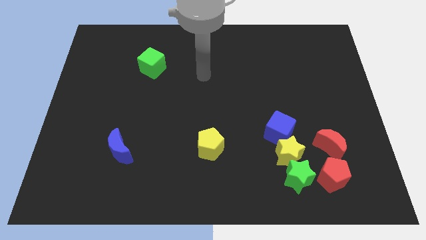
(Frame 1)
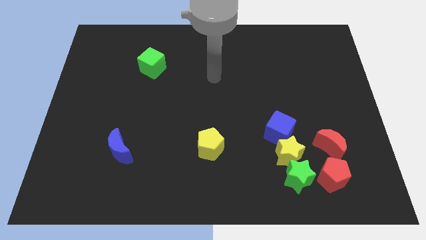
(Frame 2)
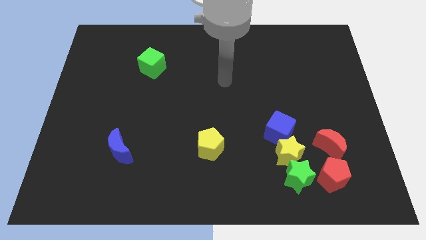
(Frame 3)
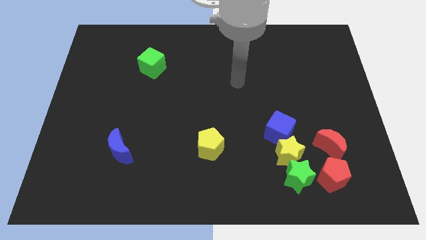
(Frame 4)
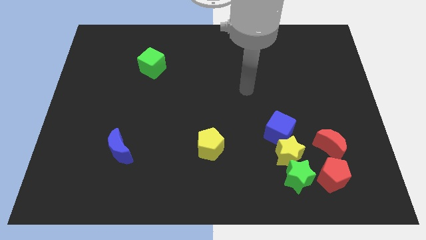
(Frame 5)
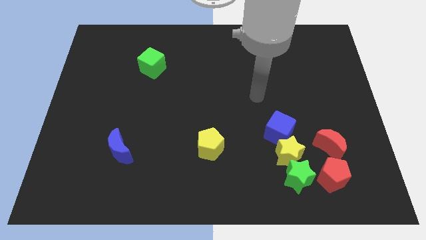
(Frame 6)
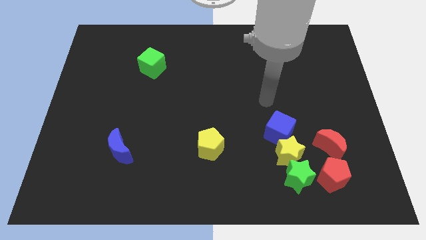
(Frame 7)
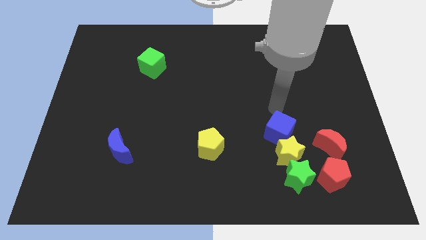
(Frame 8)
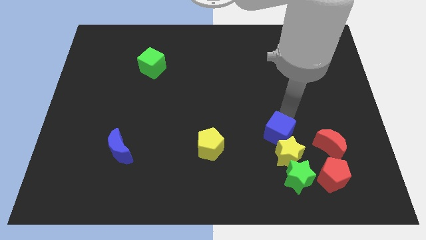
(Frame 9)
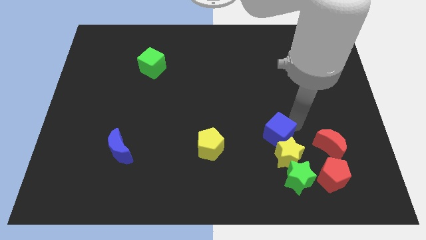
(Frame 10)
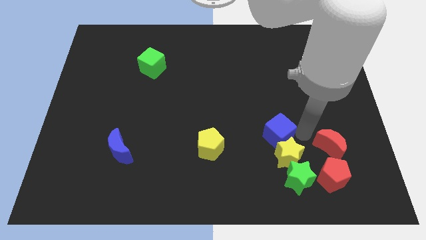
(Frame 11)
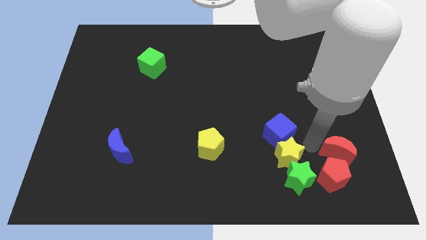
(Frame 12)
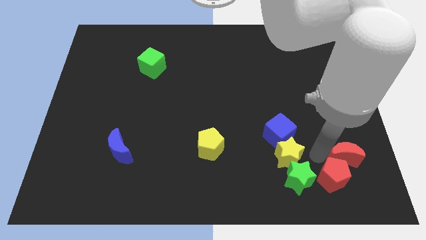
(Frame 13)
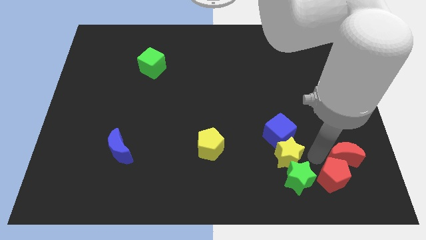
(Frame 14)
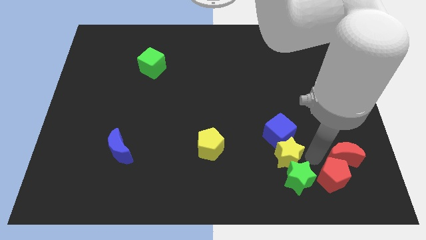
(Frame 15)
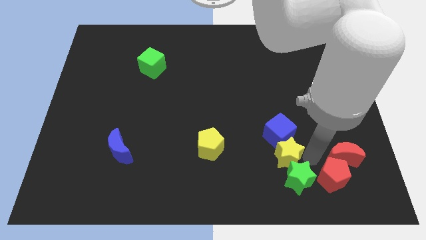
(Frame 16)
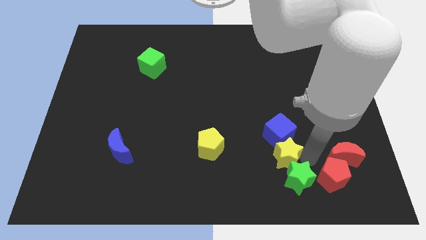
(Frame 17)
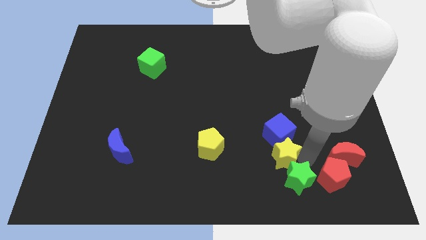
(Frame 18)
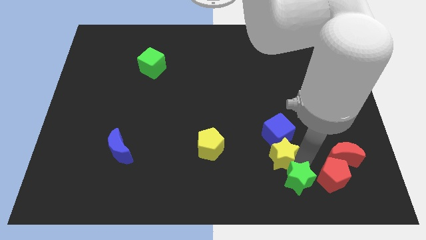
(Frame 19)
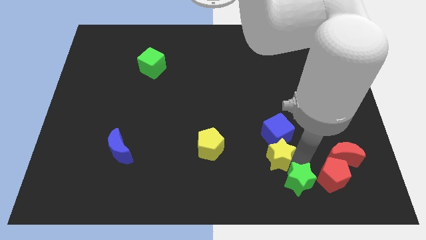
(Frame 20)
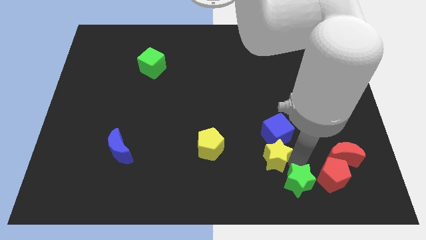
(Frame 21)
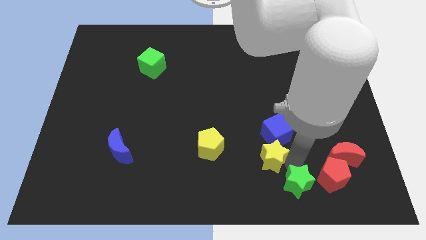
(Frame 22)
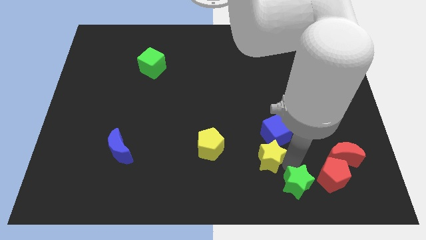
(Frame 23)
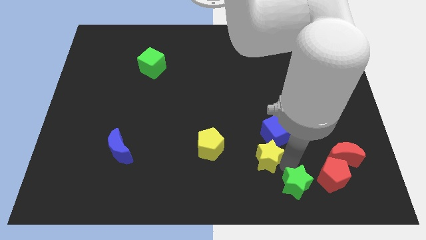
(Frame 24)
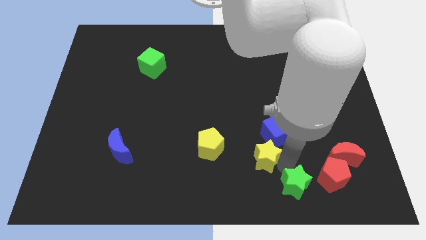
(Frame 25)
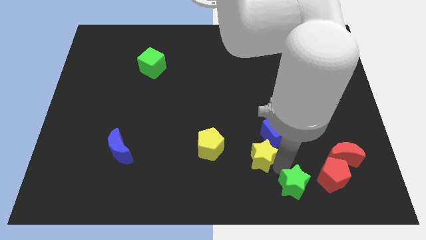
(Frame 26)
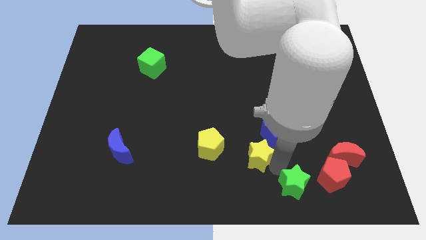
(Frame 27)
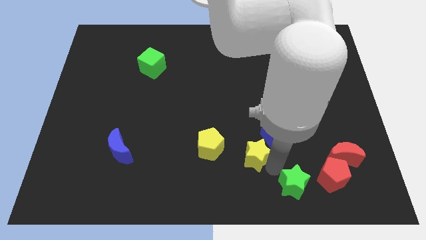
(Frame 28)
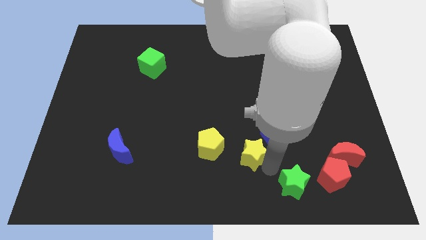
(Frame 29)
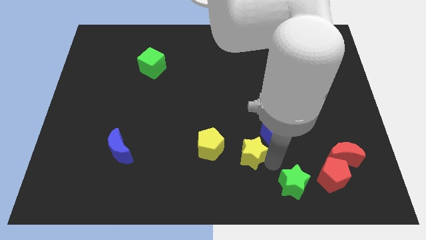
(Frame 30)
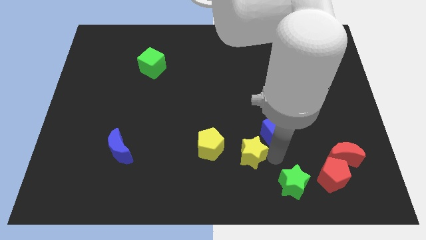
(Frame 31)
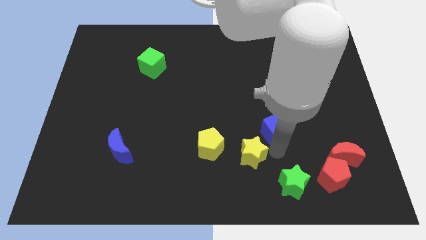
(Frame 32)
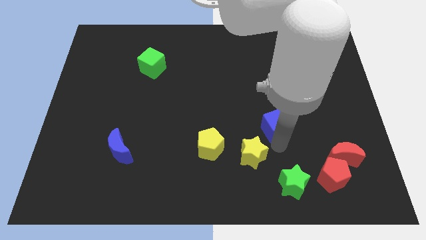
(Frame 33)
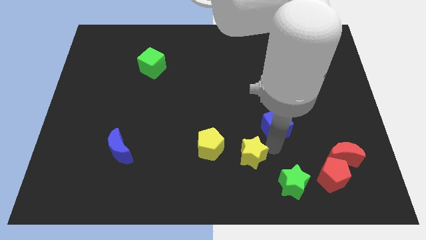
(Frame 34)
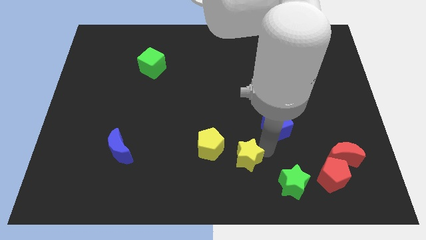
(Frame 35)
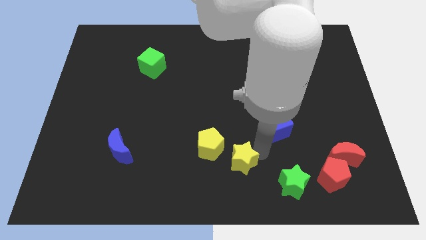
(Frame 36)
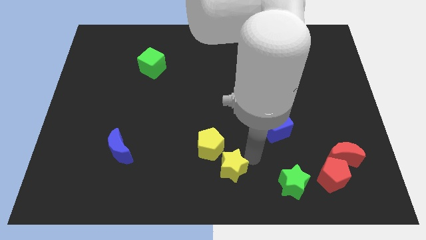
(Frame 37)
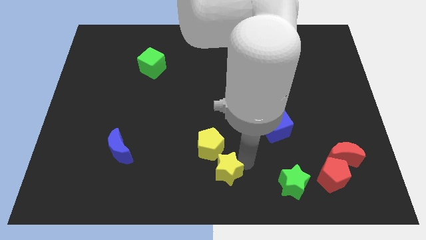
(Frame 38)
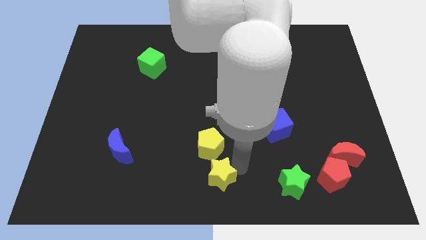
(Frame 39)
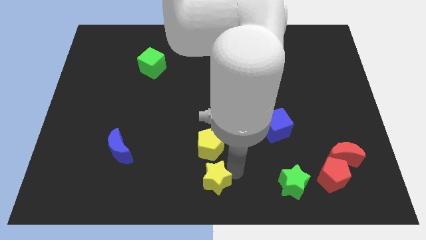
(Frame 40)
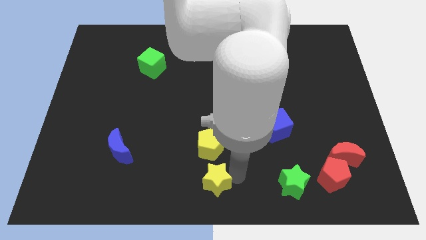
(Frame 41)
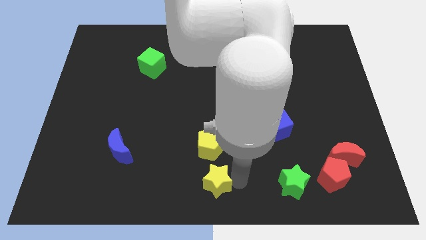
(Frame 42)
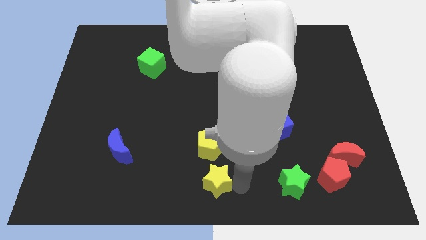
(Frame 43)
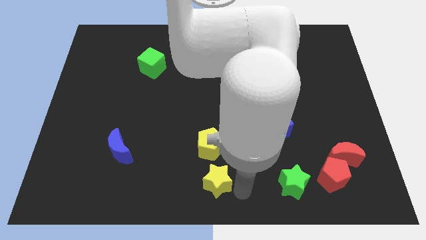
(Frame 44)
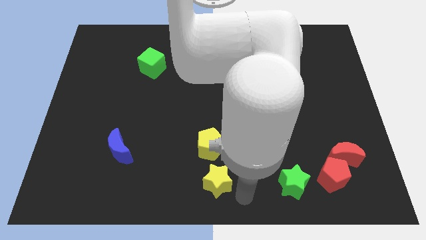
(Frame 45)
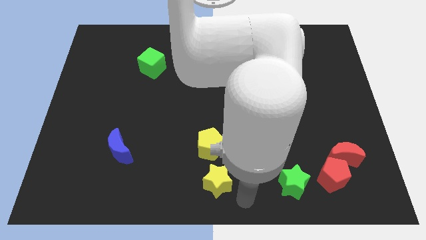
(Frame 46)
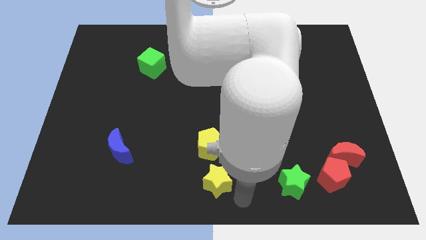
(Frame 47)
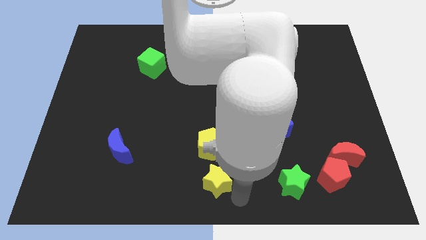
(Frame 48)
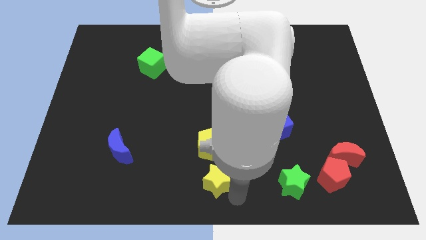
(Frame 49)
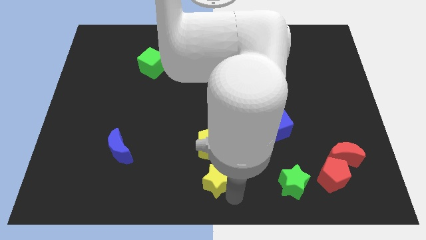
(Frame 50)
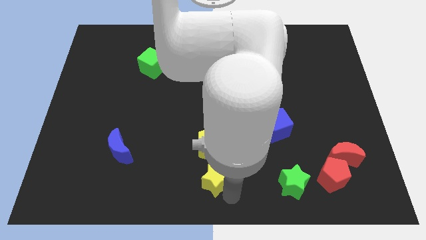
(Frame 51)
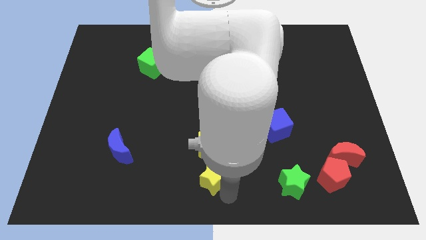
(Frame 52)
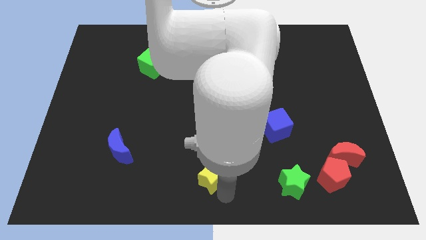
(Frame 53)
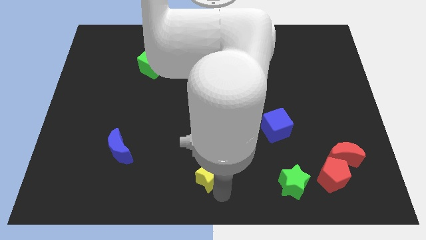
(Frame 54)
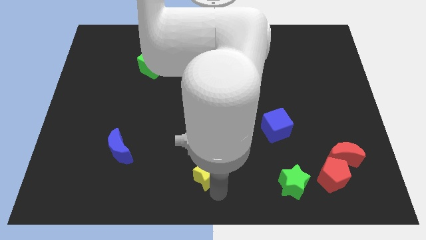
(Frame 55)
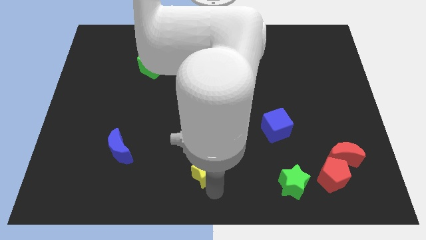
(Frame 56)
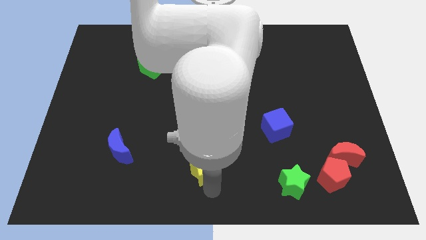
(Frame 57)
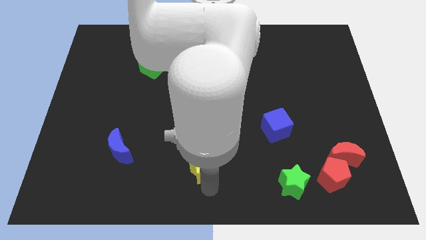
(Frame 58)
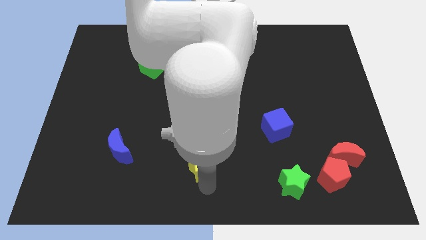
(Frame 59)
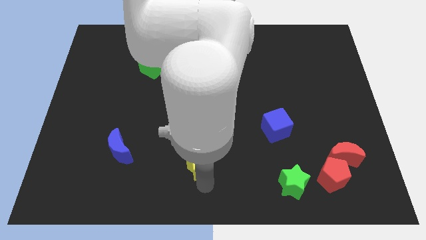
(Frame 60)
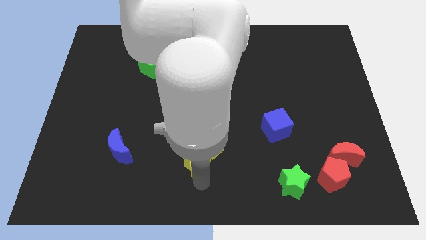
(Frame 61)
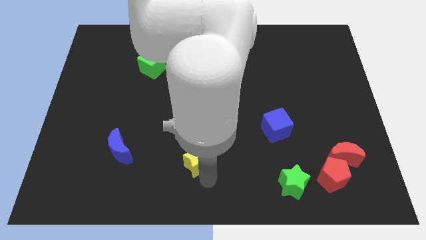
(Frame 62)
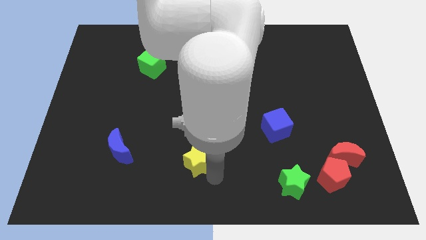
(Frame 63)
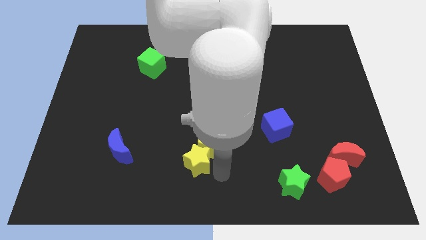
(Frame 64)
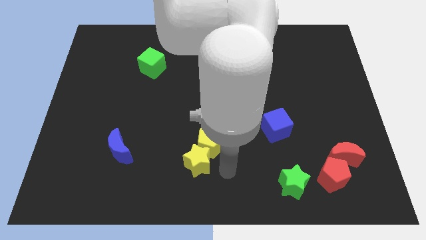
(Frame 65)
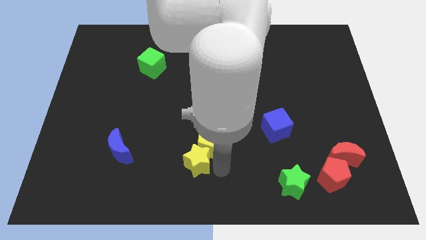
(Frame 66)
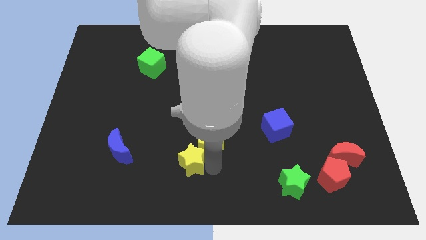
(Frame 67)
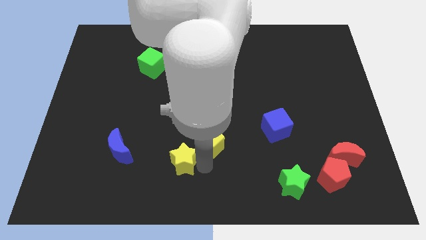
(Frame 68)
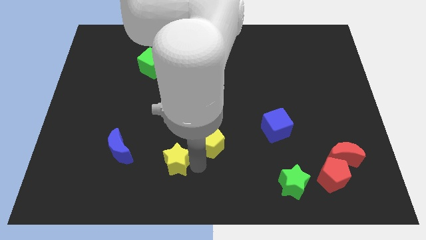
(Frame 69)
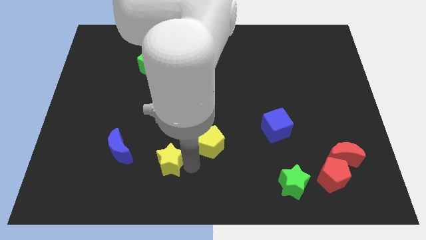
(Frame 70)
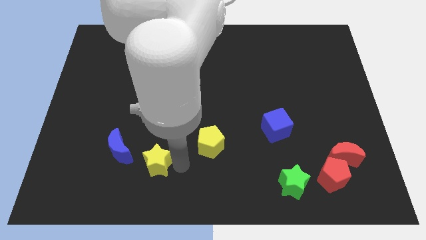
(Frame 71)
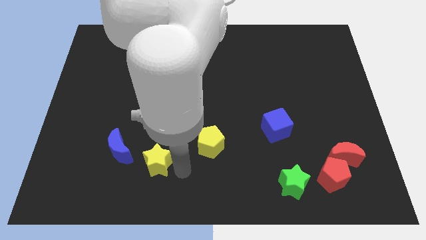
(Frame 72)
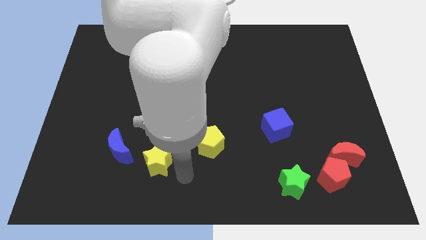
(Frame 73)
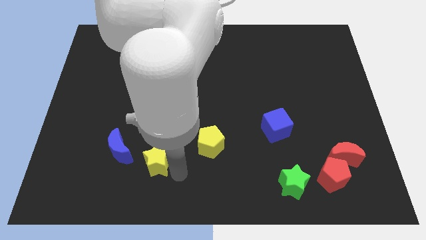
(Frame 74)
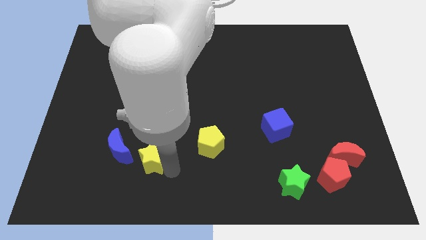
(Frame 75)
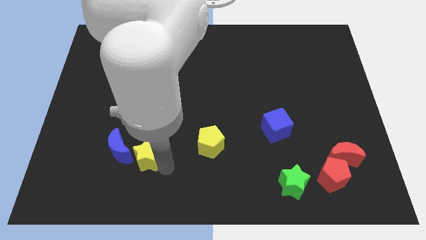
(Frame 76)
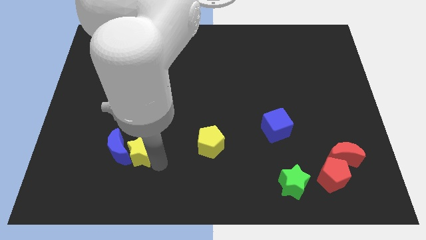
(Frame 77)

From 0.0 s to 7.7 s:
move the yellow star towards the blue moon
